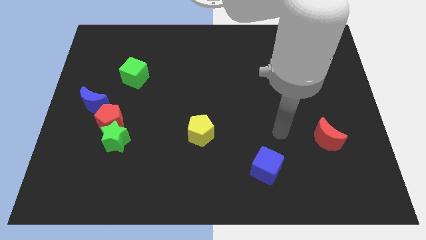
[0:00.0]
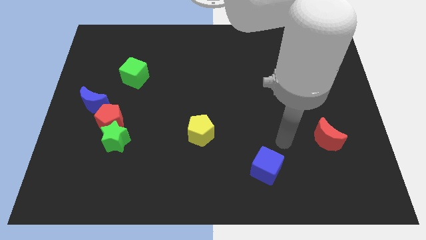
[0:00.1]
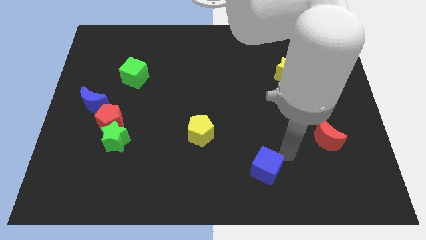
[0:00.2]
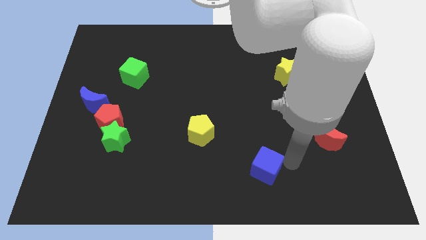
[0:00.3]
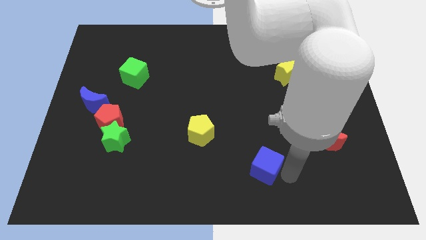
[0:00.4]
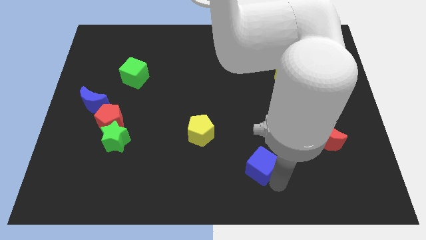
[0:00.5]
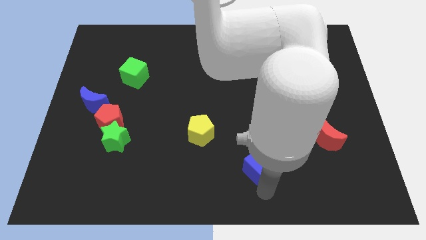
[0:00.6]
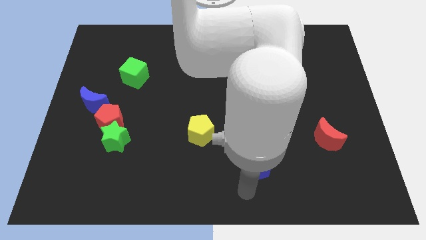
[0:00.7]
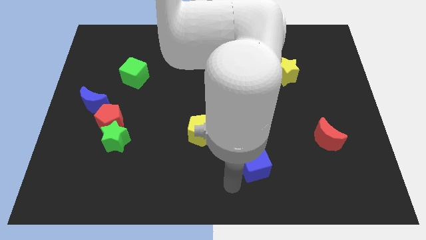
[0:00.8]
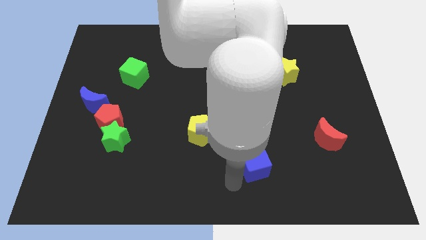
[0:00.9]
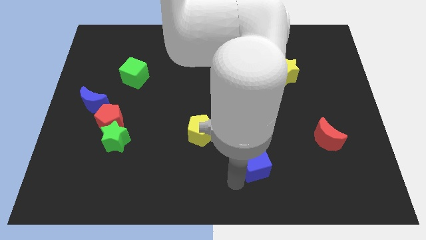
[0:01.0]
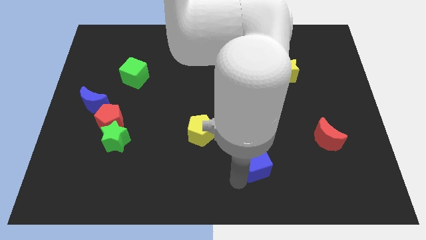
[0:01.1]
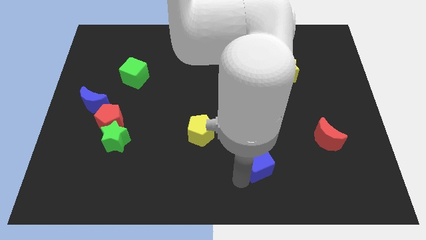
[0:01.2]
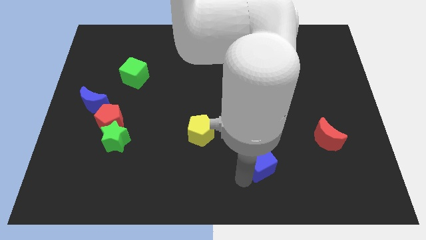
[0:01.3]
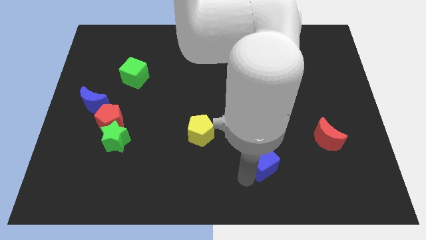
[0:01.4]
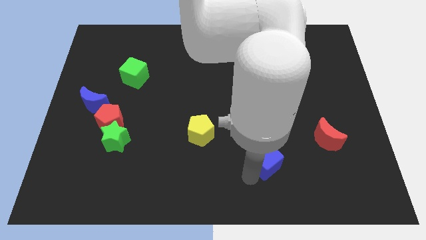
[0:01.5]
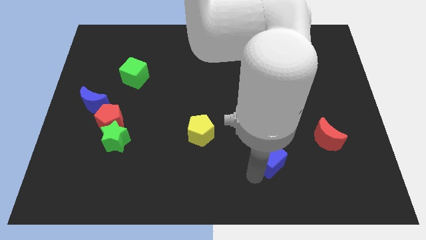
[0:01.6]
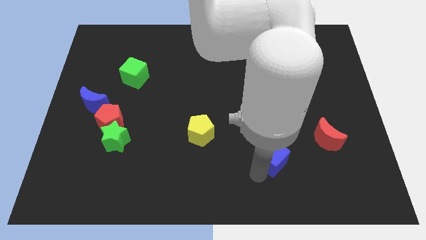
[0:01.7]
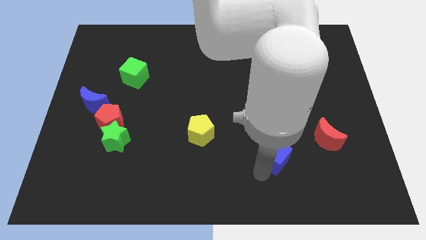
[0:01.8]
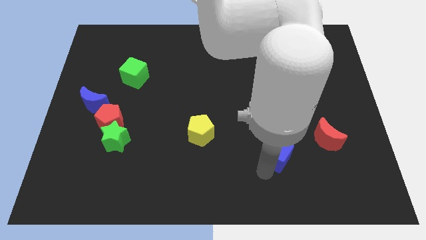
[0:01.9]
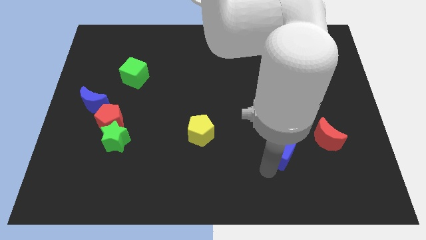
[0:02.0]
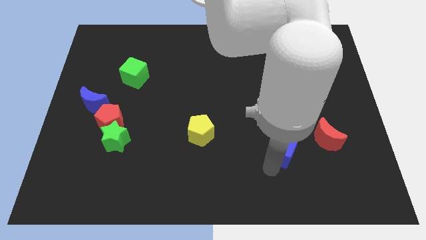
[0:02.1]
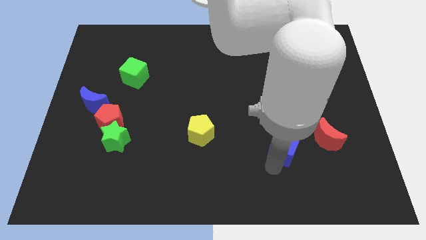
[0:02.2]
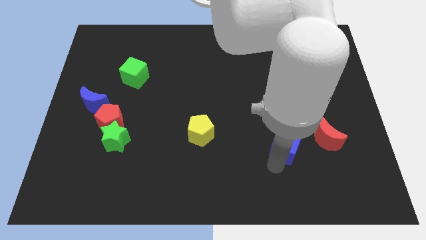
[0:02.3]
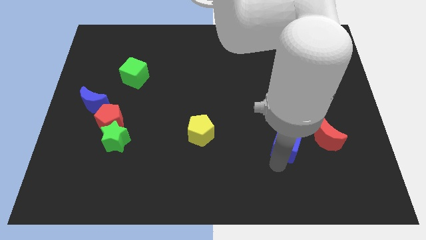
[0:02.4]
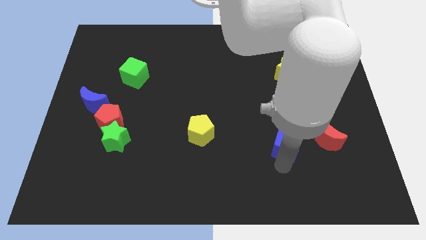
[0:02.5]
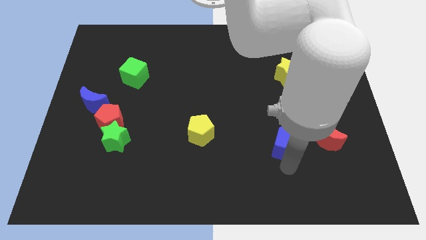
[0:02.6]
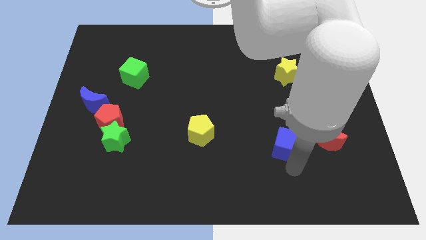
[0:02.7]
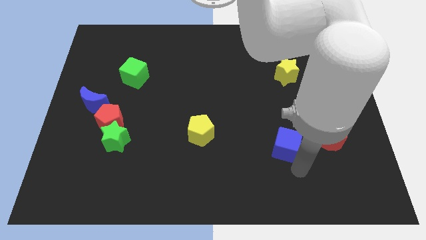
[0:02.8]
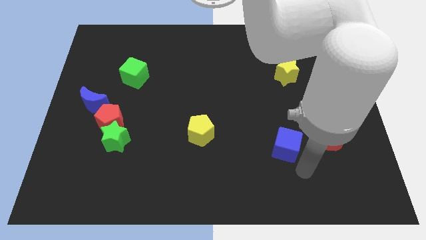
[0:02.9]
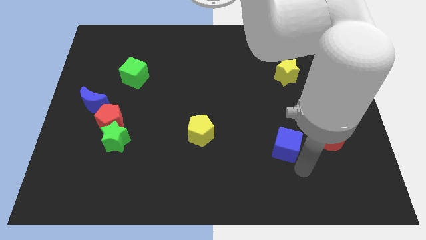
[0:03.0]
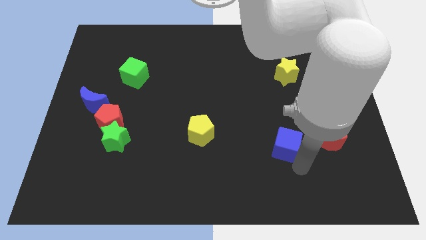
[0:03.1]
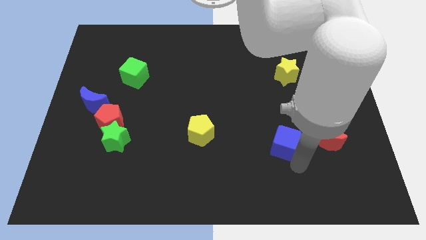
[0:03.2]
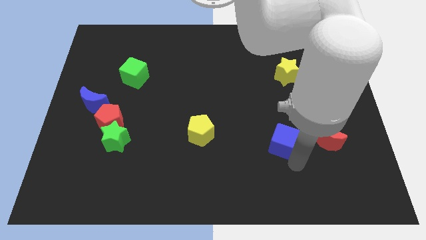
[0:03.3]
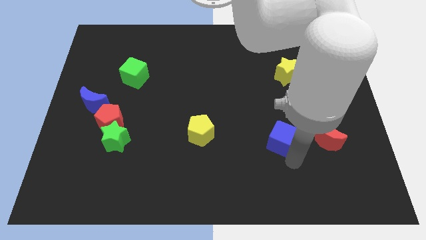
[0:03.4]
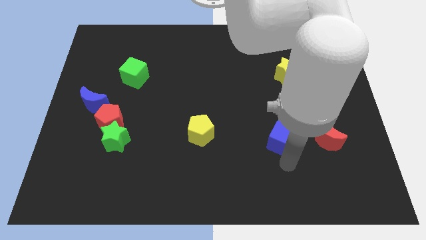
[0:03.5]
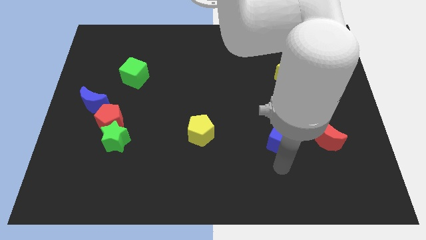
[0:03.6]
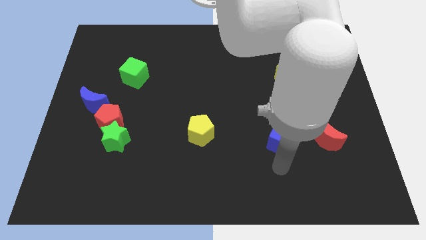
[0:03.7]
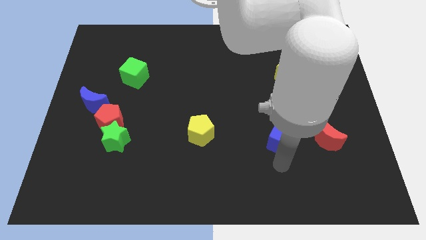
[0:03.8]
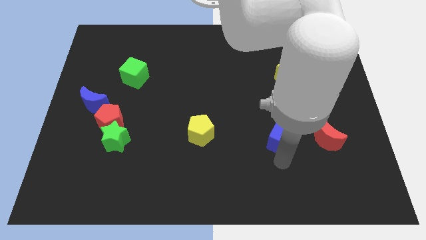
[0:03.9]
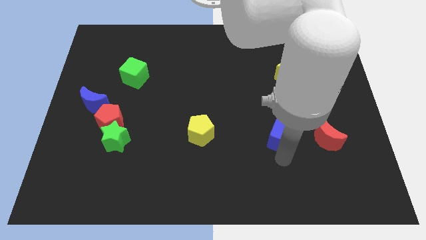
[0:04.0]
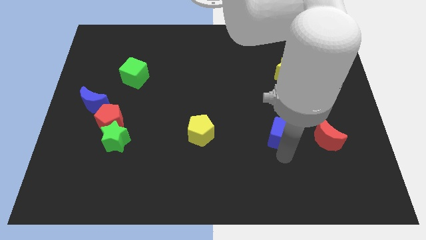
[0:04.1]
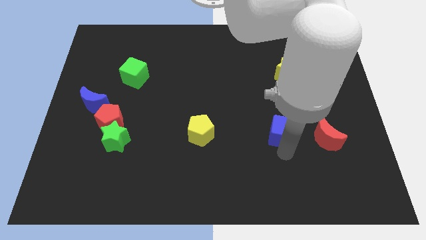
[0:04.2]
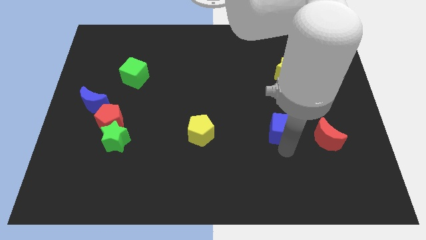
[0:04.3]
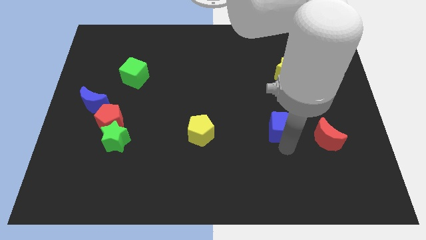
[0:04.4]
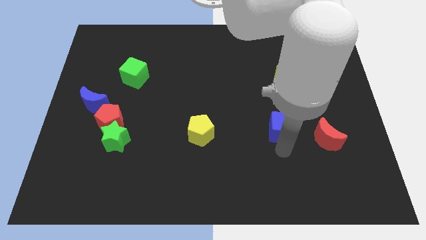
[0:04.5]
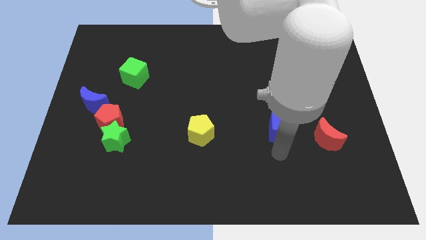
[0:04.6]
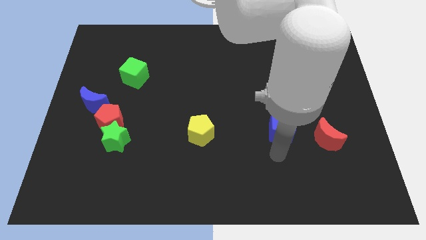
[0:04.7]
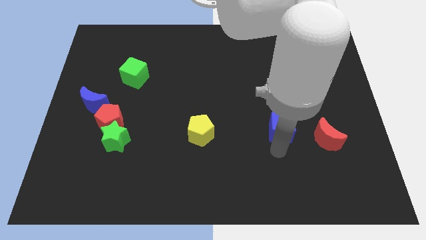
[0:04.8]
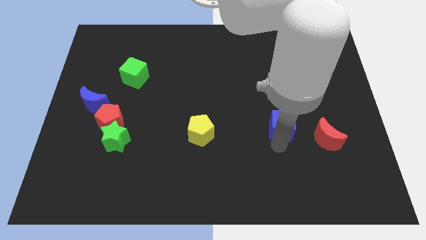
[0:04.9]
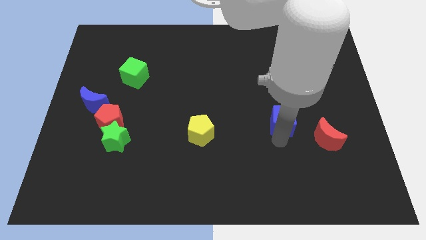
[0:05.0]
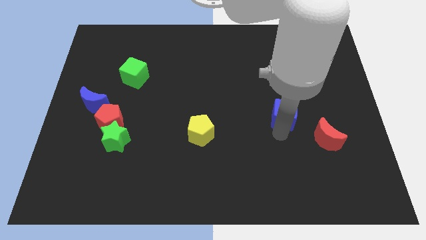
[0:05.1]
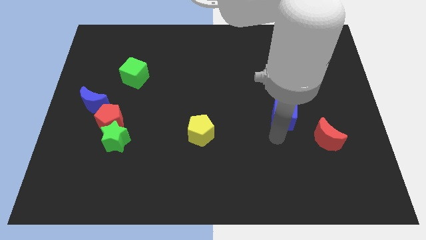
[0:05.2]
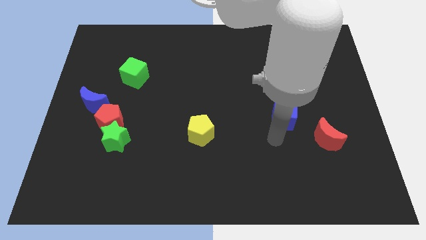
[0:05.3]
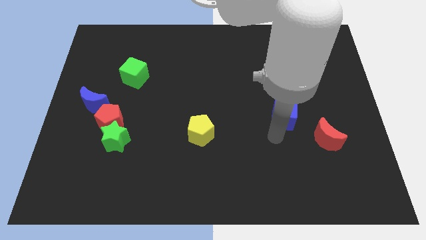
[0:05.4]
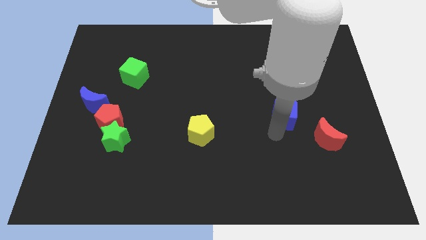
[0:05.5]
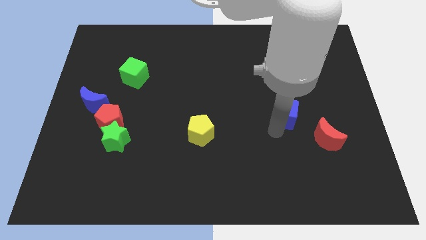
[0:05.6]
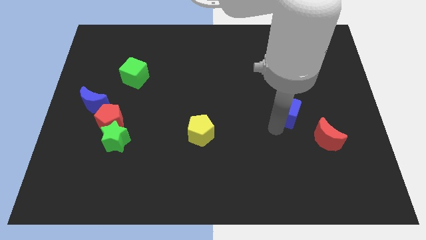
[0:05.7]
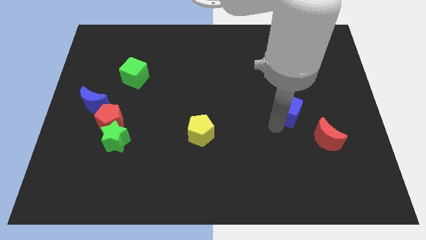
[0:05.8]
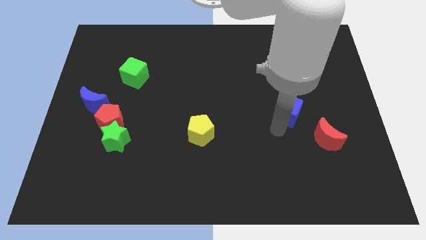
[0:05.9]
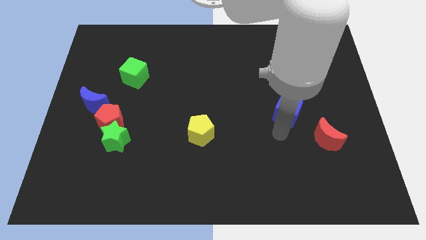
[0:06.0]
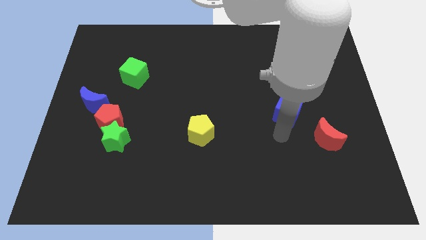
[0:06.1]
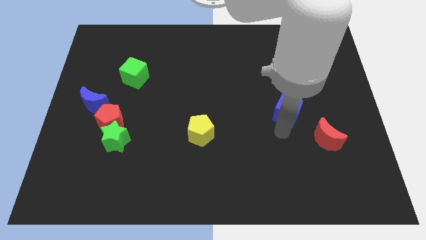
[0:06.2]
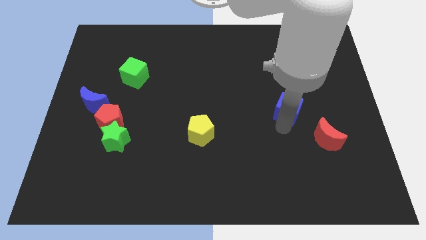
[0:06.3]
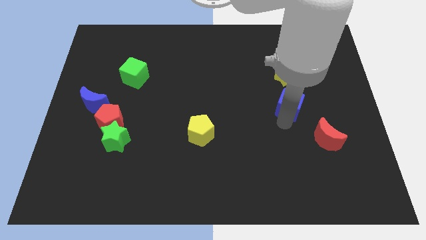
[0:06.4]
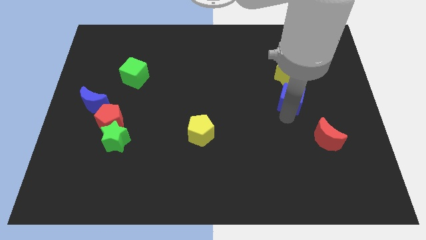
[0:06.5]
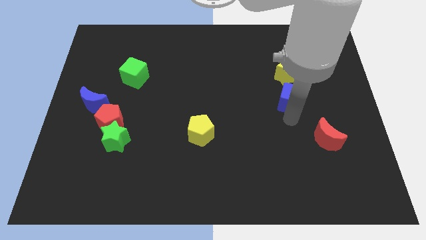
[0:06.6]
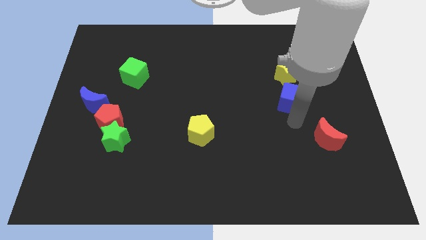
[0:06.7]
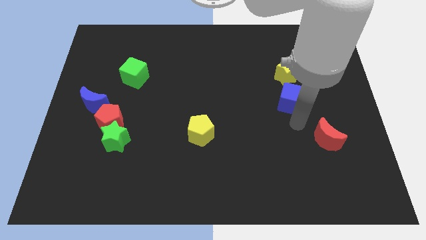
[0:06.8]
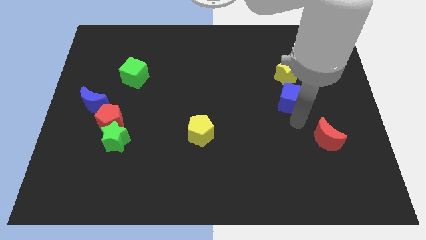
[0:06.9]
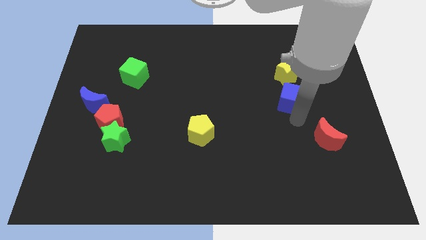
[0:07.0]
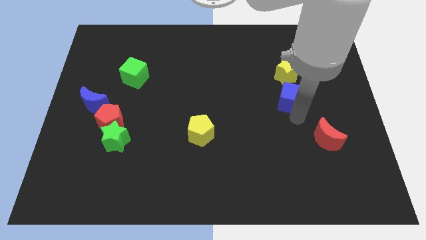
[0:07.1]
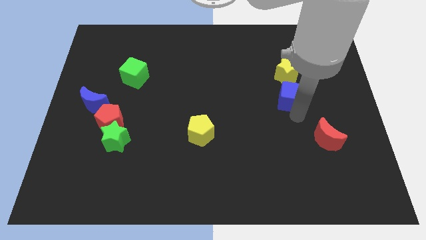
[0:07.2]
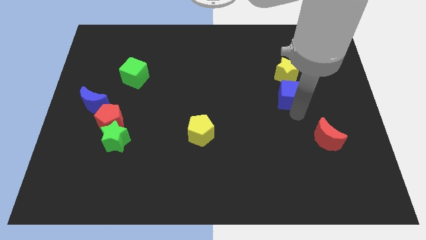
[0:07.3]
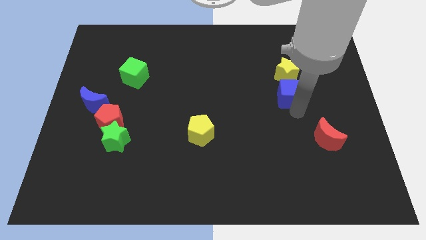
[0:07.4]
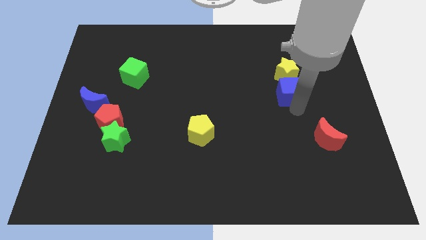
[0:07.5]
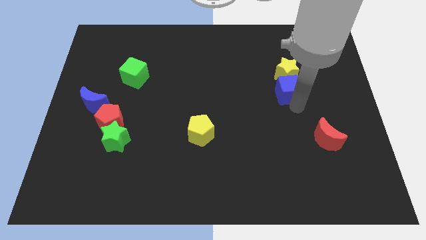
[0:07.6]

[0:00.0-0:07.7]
slide the blue cube to the yellow star
